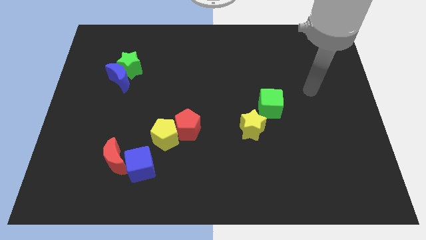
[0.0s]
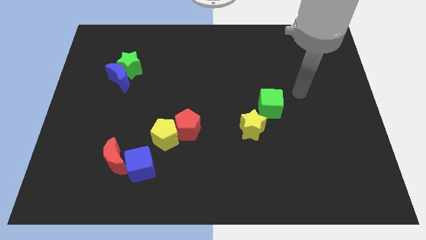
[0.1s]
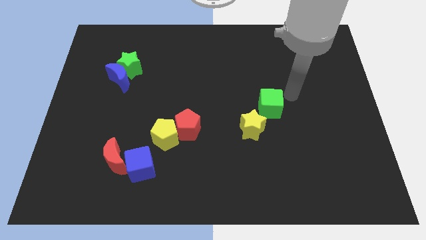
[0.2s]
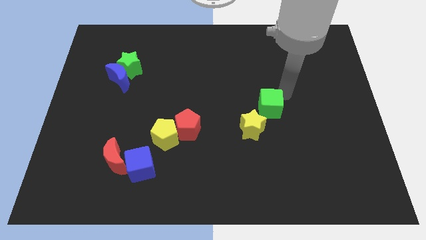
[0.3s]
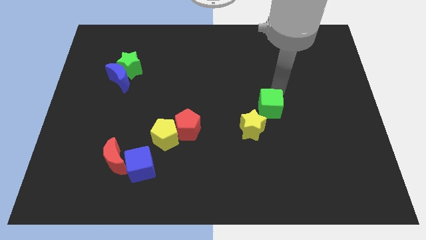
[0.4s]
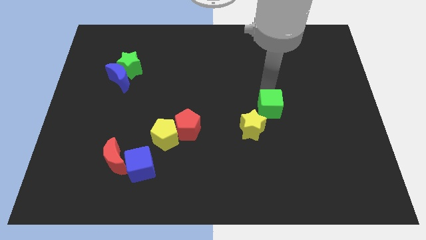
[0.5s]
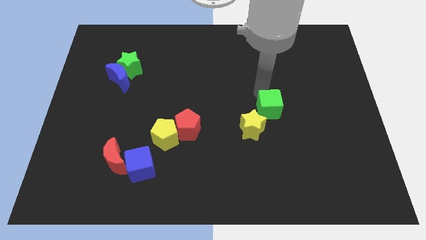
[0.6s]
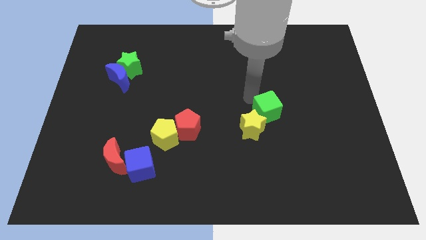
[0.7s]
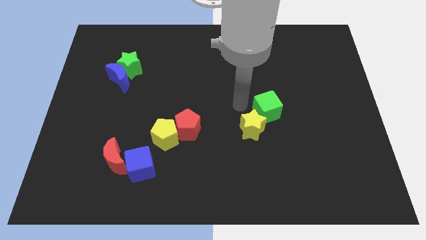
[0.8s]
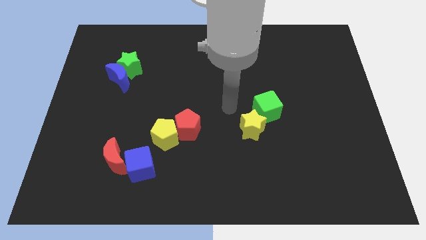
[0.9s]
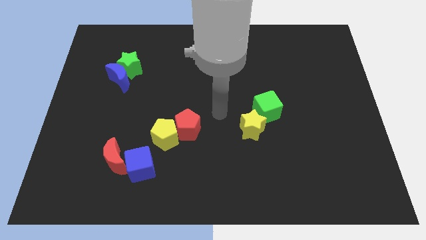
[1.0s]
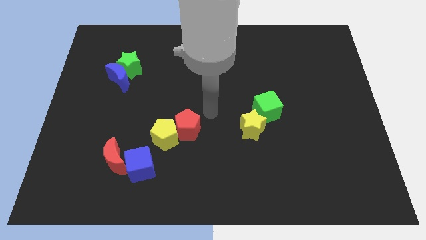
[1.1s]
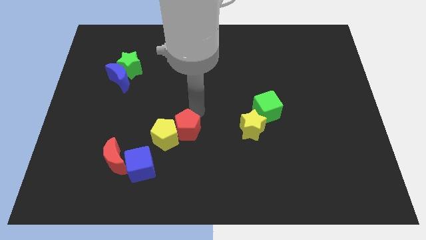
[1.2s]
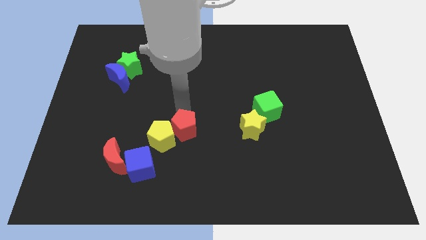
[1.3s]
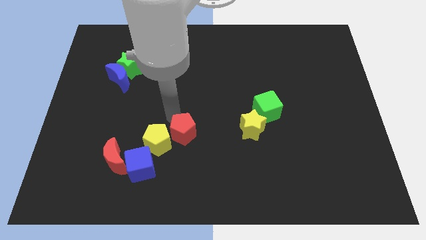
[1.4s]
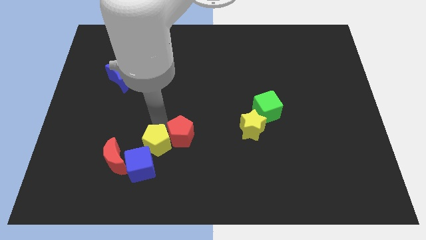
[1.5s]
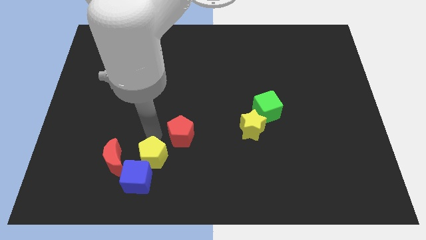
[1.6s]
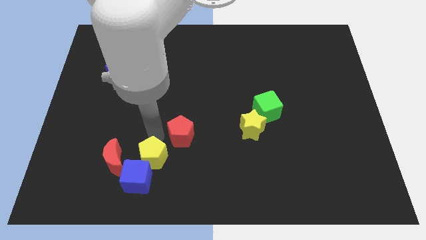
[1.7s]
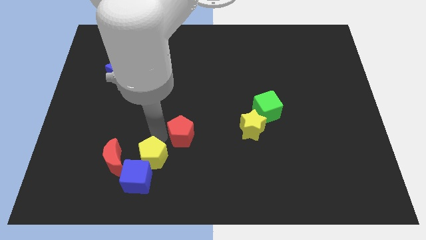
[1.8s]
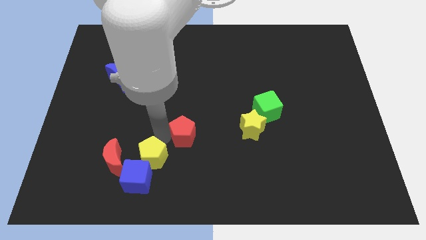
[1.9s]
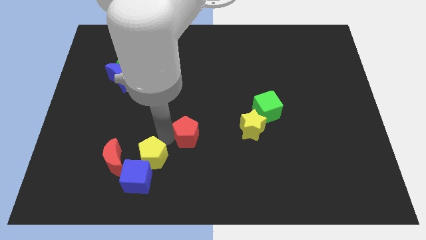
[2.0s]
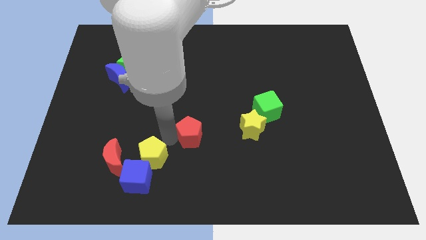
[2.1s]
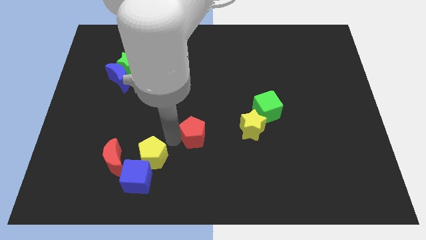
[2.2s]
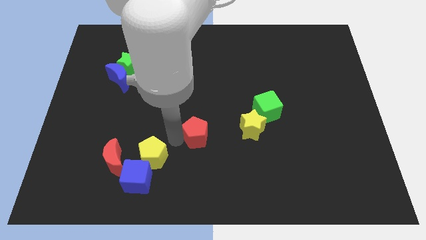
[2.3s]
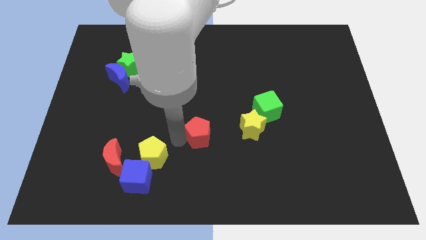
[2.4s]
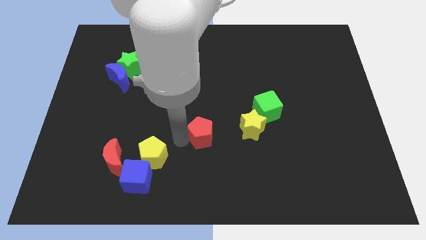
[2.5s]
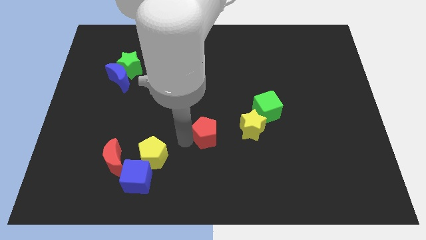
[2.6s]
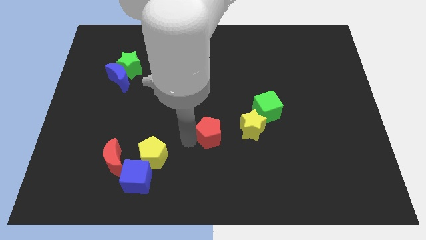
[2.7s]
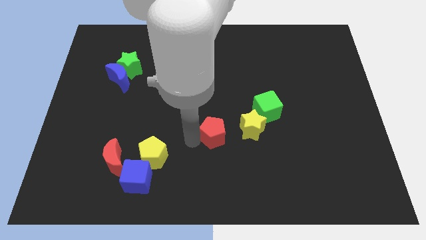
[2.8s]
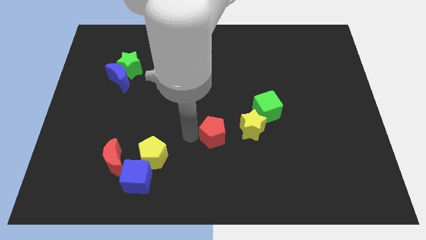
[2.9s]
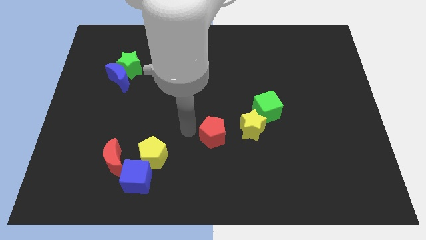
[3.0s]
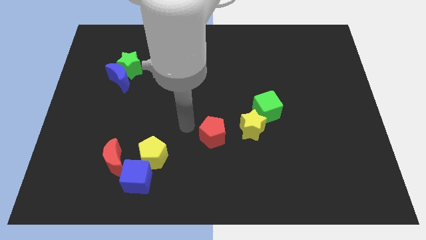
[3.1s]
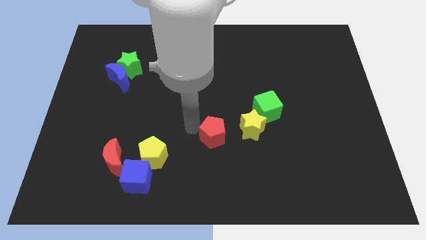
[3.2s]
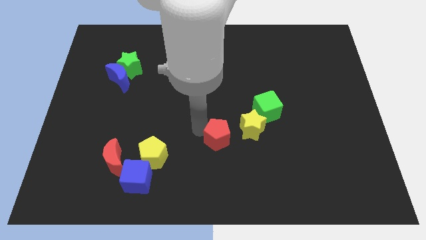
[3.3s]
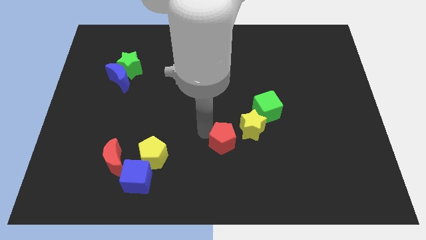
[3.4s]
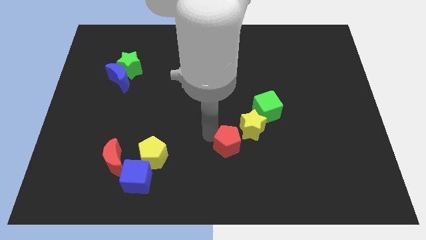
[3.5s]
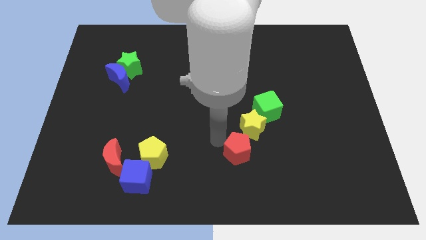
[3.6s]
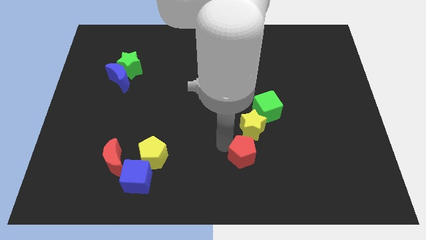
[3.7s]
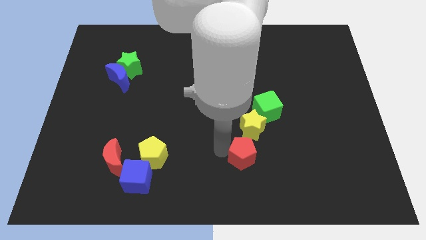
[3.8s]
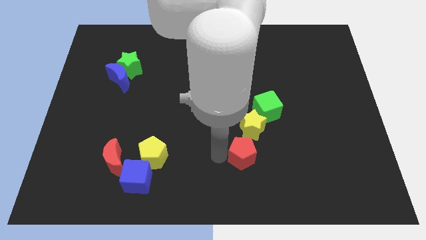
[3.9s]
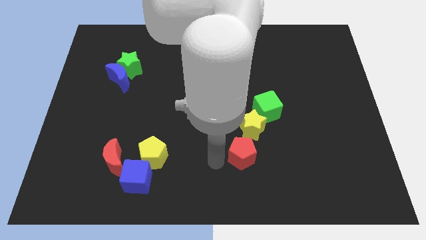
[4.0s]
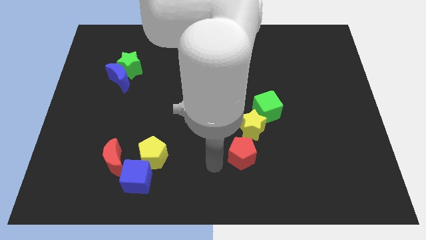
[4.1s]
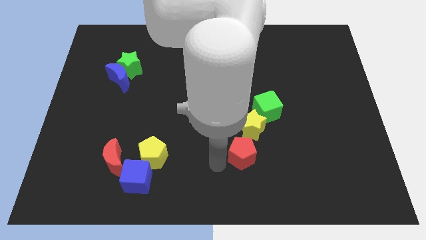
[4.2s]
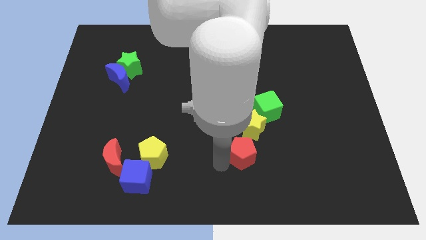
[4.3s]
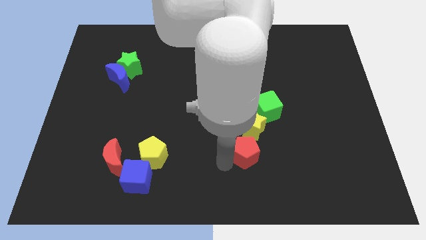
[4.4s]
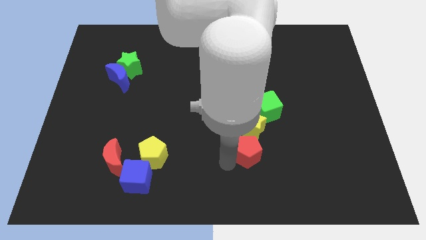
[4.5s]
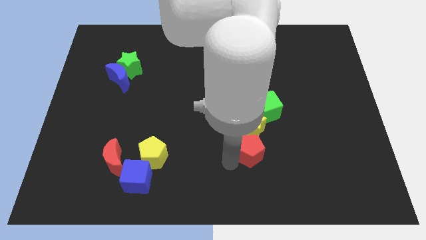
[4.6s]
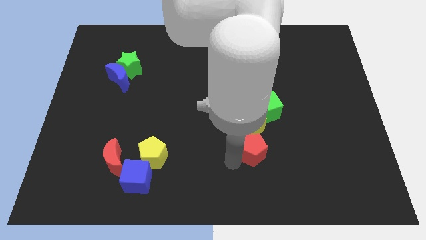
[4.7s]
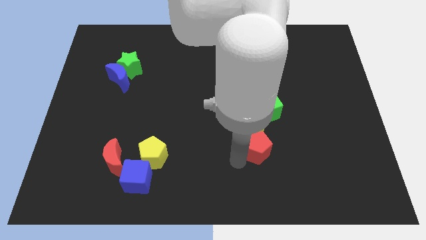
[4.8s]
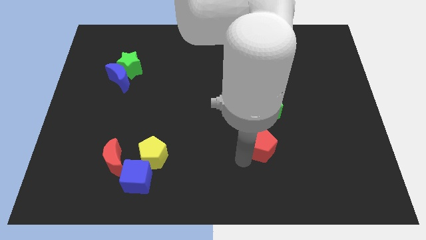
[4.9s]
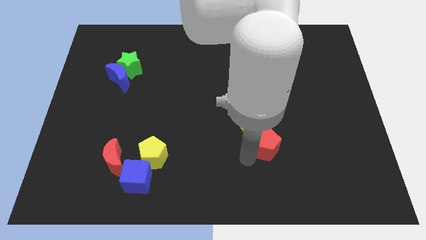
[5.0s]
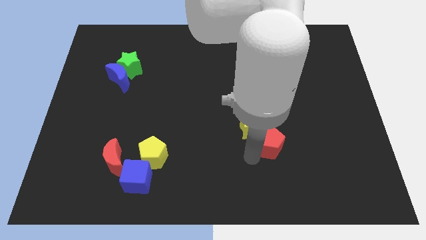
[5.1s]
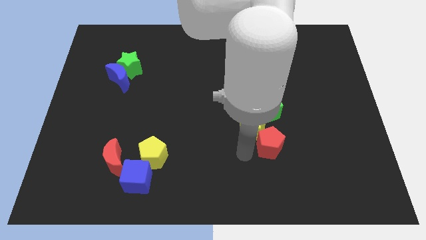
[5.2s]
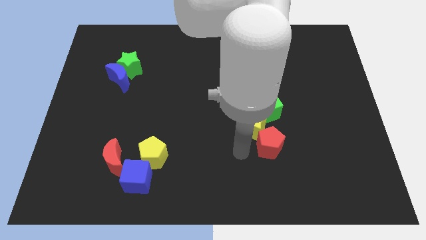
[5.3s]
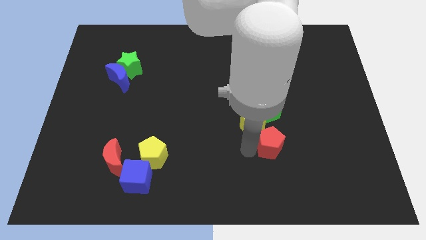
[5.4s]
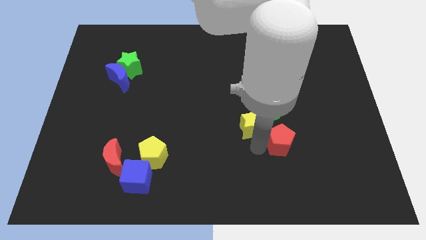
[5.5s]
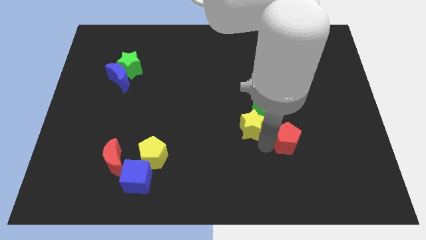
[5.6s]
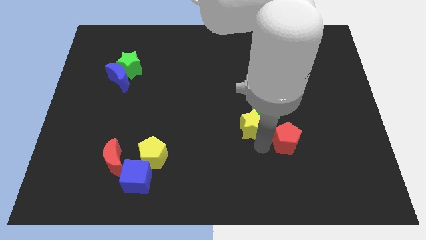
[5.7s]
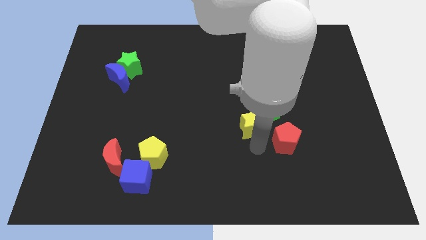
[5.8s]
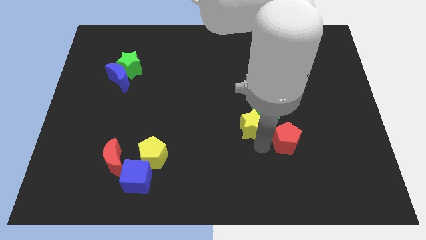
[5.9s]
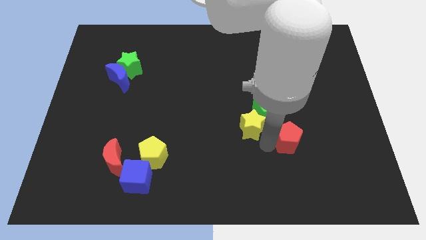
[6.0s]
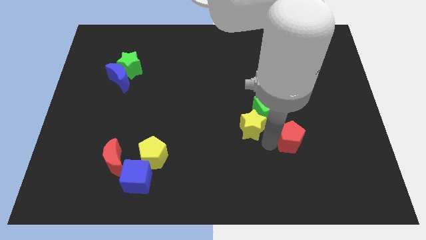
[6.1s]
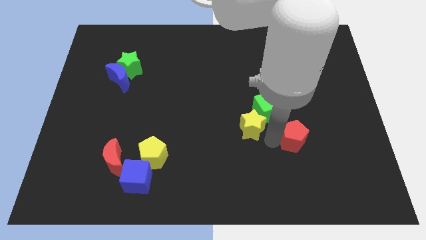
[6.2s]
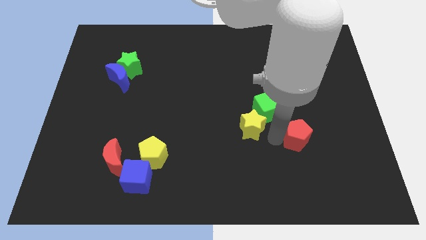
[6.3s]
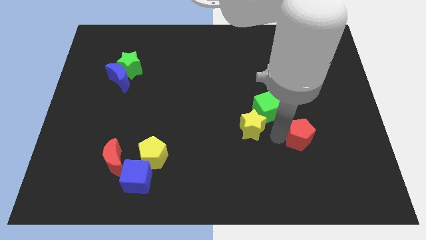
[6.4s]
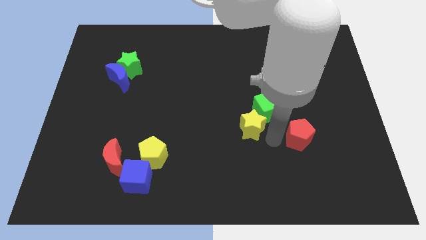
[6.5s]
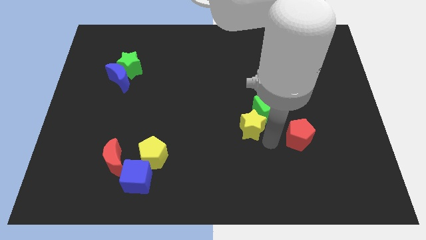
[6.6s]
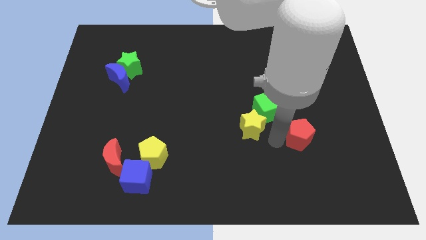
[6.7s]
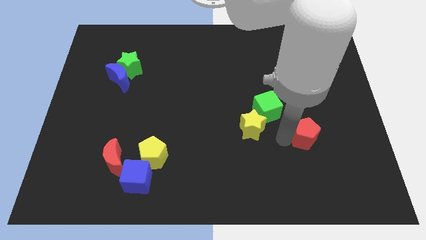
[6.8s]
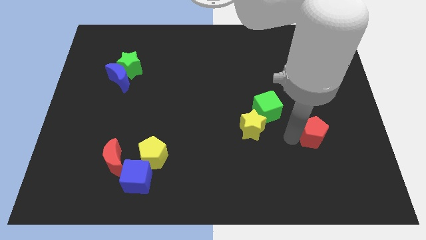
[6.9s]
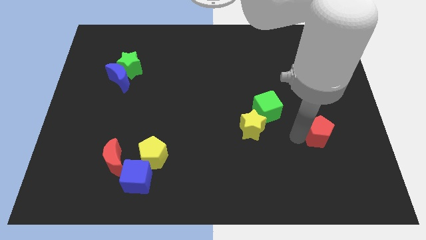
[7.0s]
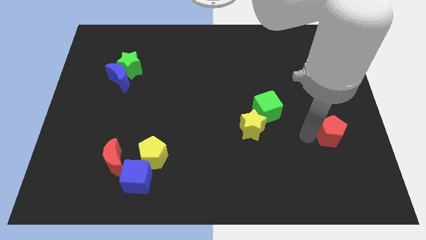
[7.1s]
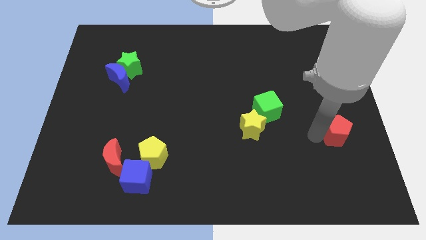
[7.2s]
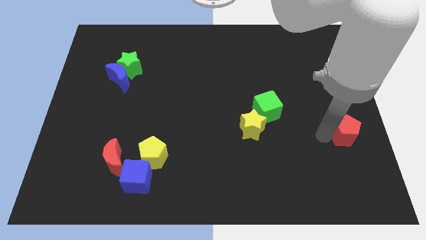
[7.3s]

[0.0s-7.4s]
push the red pentagon to the right side of the board
